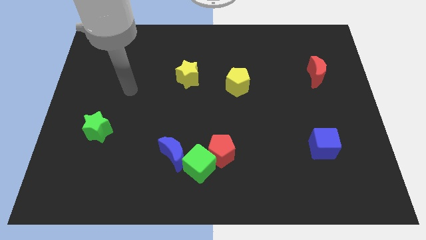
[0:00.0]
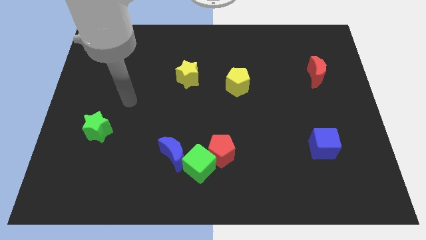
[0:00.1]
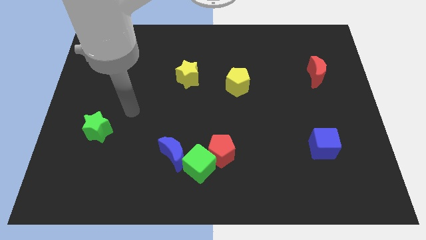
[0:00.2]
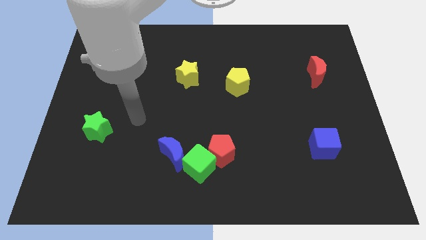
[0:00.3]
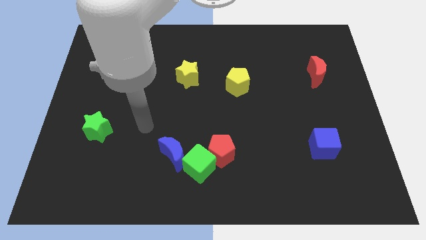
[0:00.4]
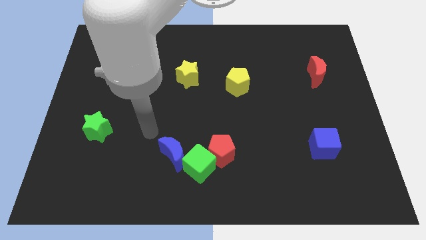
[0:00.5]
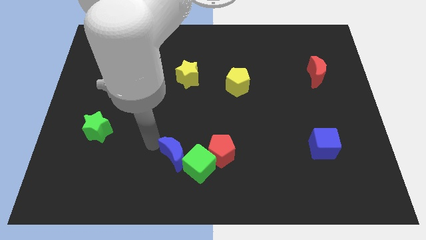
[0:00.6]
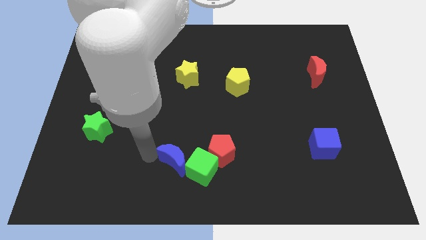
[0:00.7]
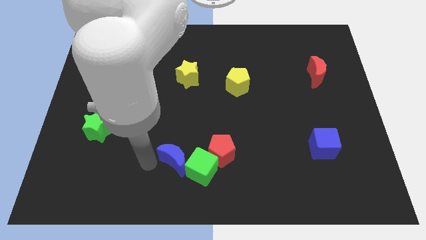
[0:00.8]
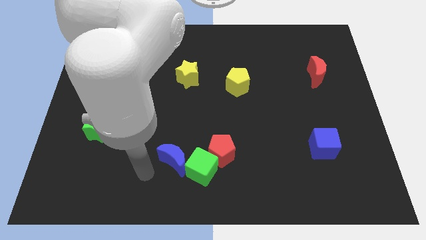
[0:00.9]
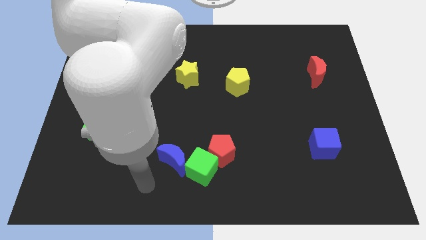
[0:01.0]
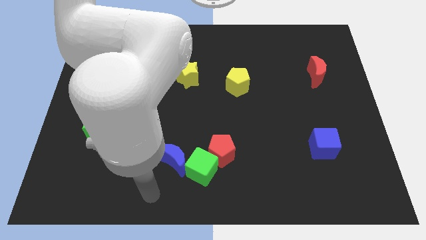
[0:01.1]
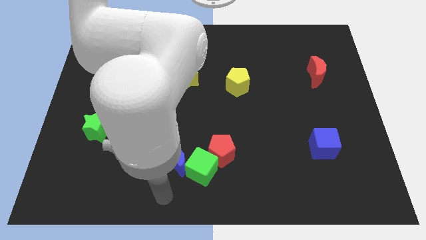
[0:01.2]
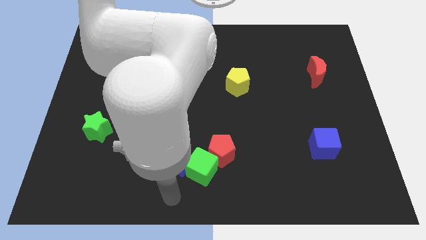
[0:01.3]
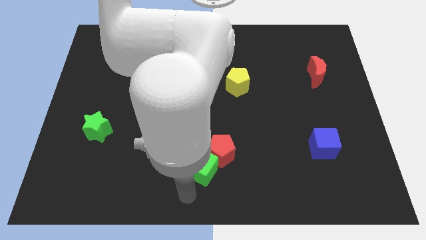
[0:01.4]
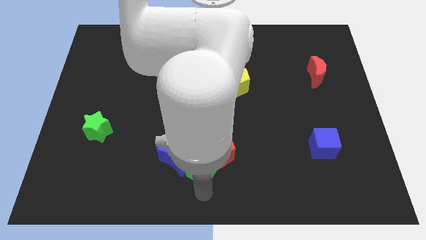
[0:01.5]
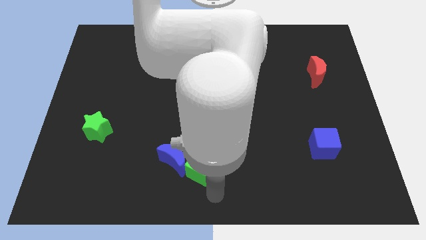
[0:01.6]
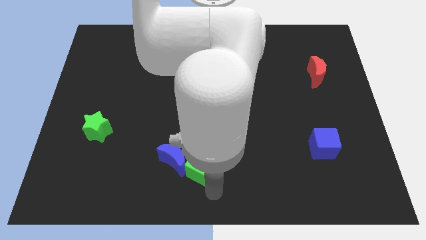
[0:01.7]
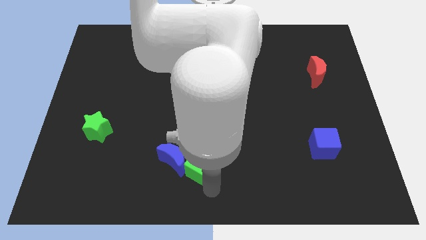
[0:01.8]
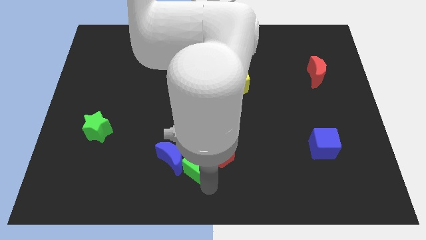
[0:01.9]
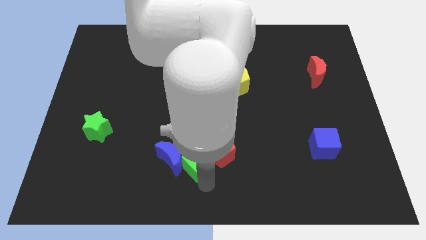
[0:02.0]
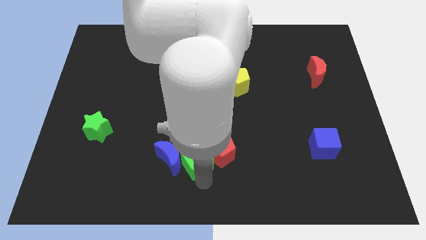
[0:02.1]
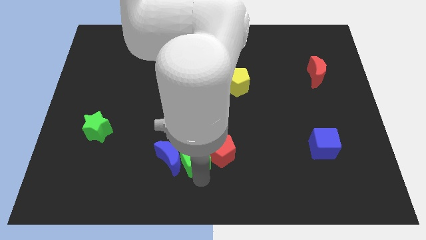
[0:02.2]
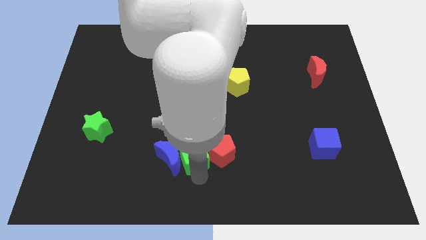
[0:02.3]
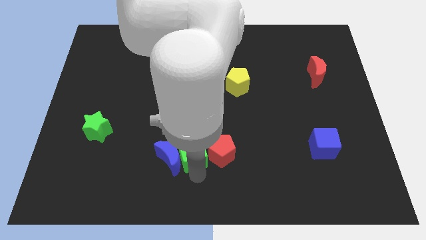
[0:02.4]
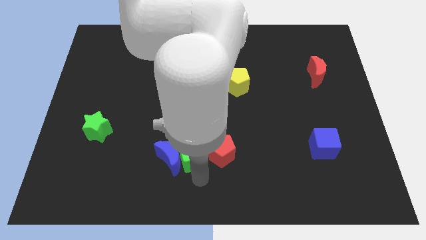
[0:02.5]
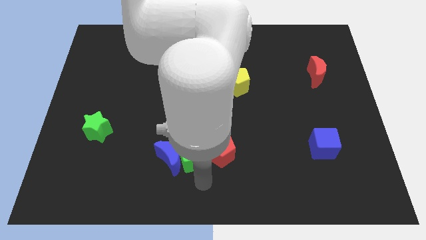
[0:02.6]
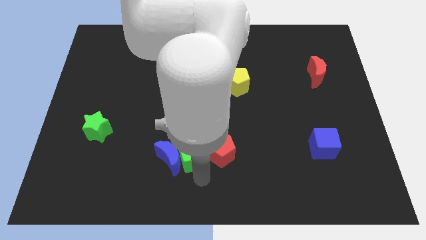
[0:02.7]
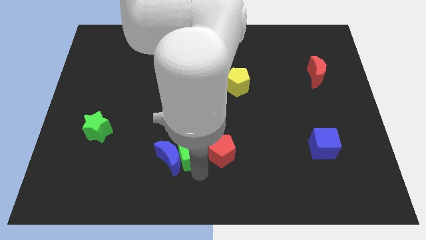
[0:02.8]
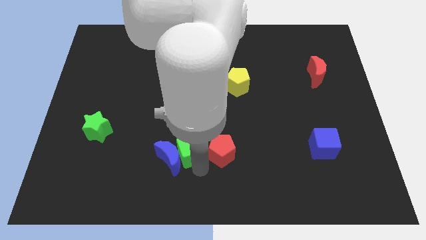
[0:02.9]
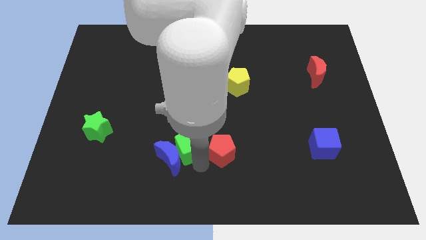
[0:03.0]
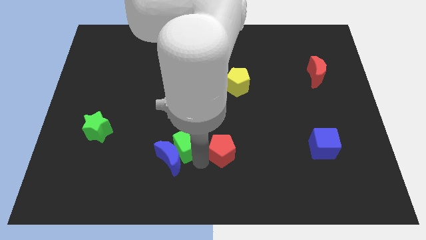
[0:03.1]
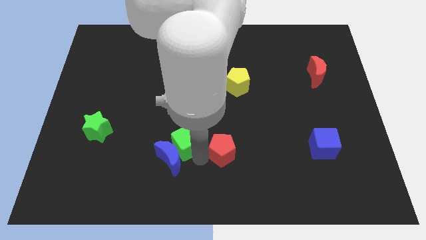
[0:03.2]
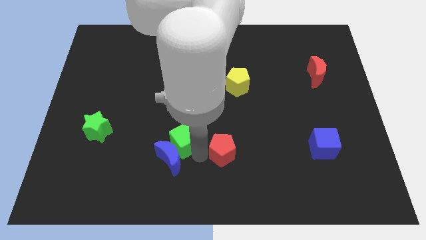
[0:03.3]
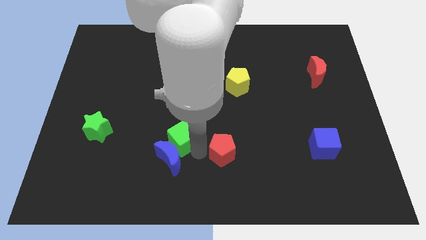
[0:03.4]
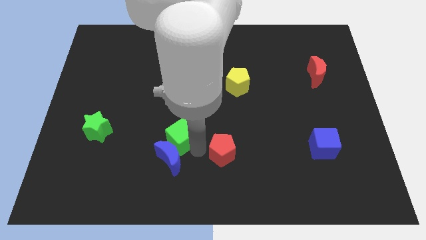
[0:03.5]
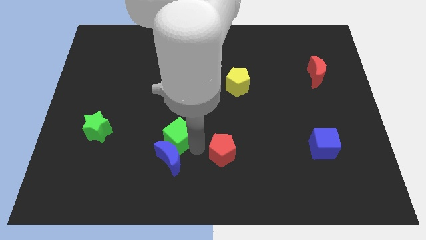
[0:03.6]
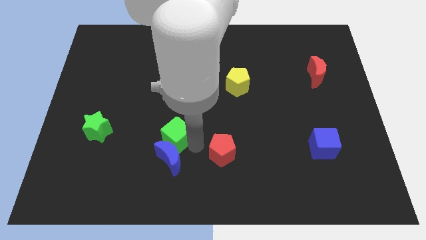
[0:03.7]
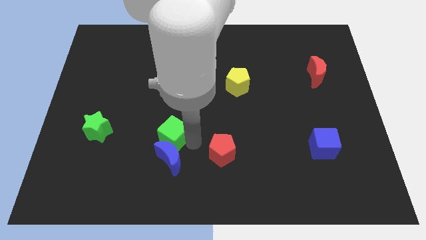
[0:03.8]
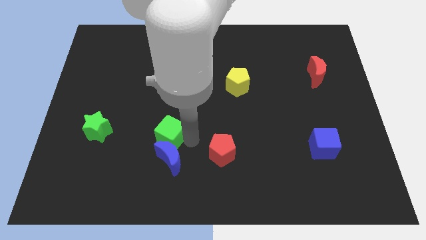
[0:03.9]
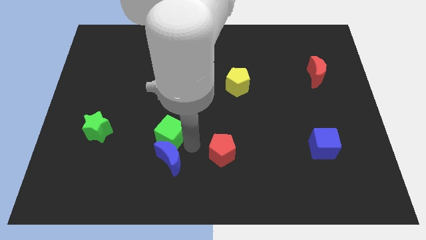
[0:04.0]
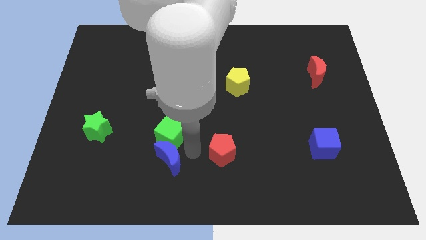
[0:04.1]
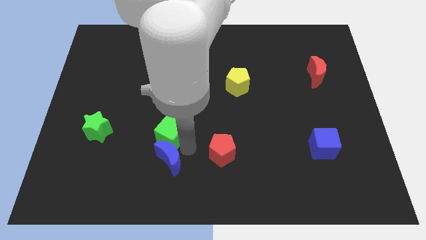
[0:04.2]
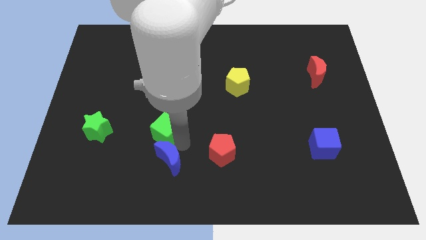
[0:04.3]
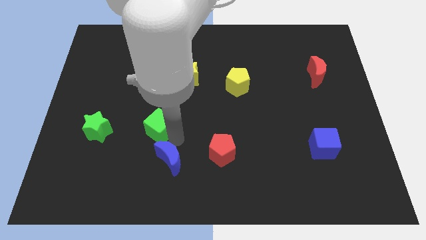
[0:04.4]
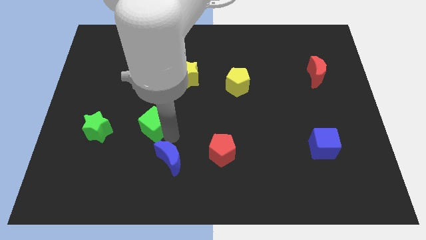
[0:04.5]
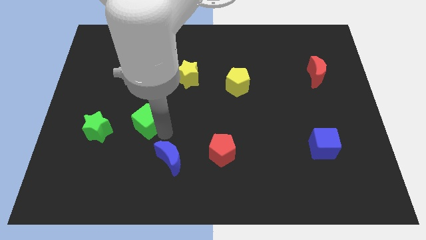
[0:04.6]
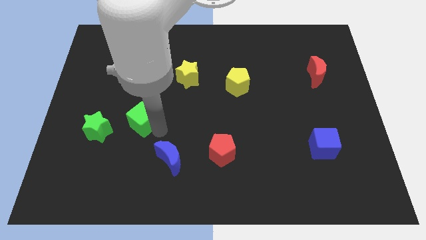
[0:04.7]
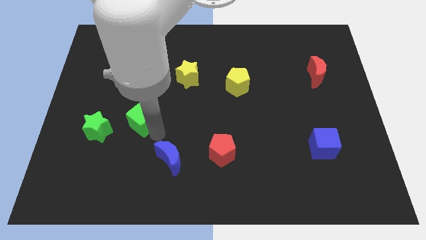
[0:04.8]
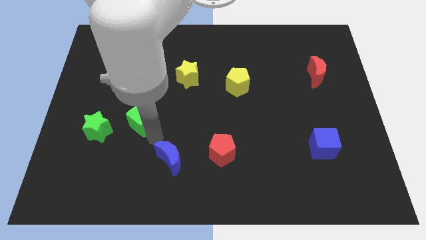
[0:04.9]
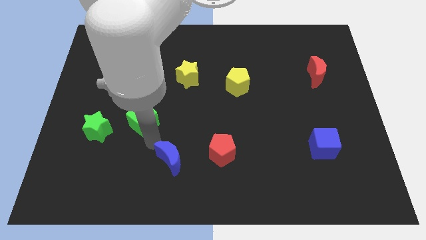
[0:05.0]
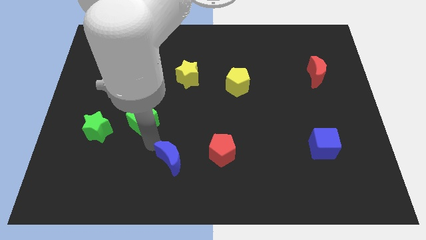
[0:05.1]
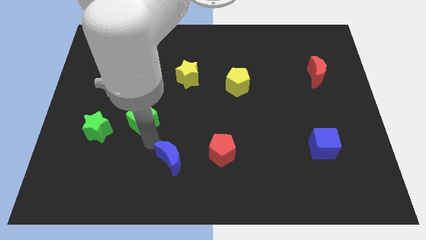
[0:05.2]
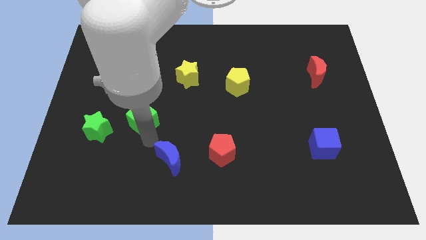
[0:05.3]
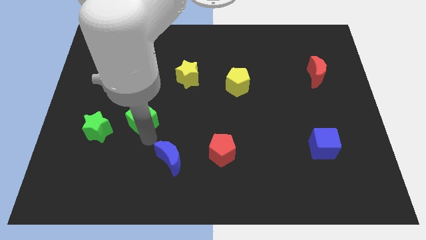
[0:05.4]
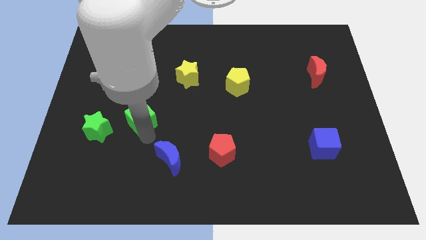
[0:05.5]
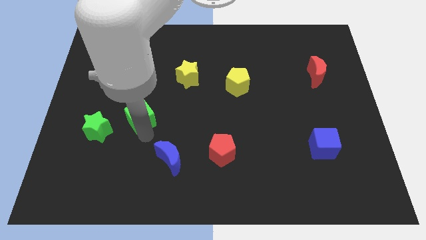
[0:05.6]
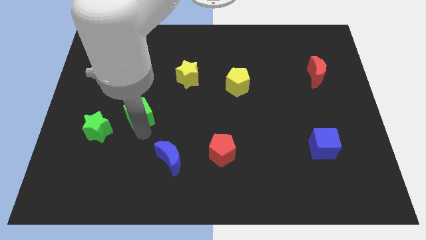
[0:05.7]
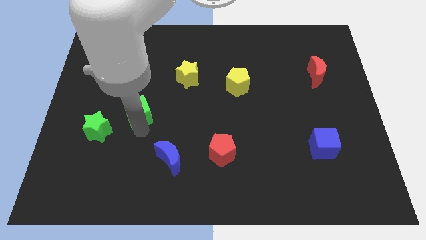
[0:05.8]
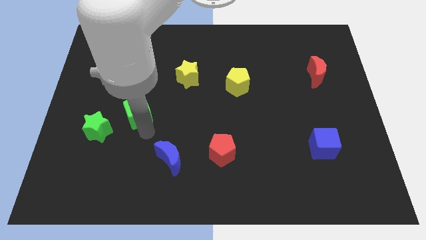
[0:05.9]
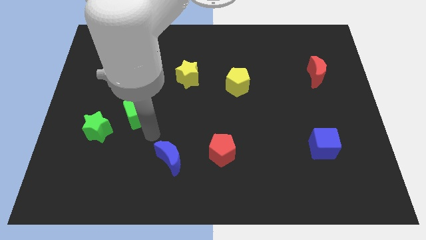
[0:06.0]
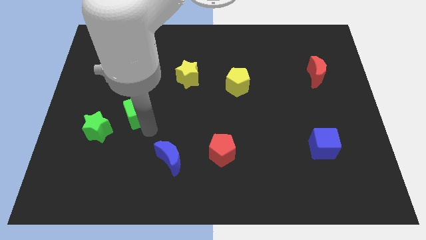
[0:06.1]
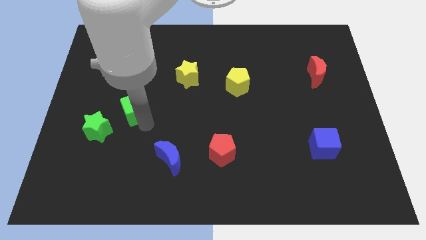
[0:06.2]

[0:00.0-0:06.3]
push the green cube up and to the left diagonally

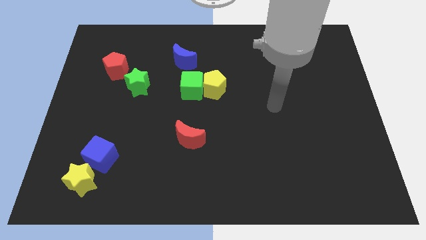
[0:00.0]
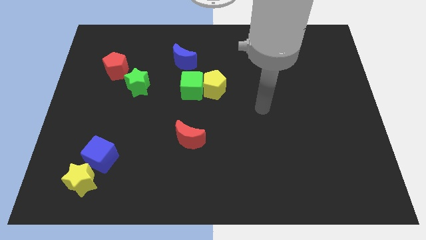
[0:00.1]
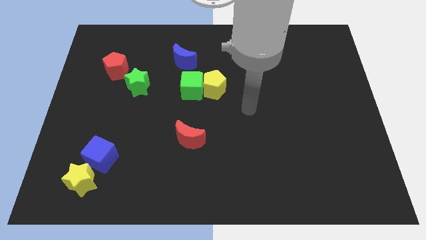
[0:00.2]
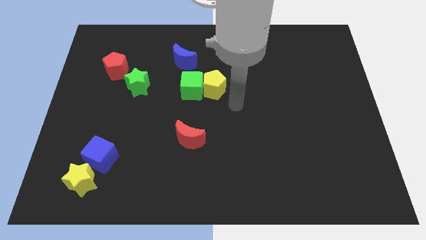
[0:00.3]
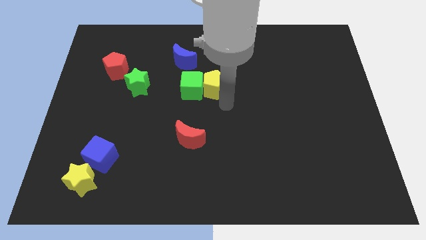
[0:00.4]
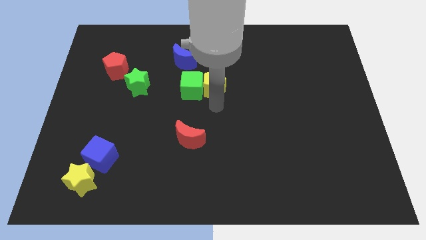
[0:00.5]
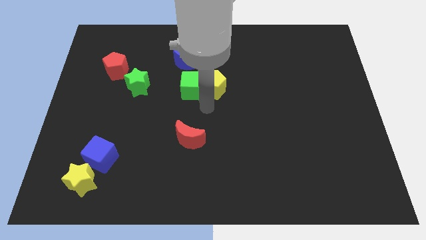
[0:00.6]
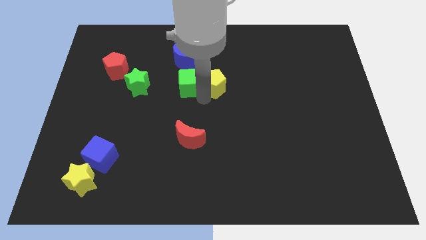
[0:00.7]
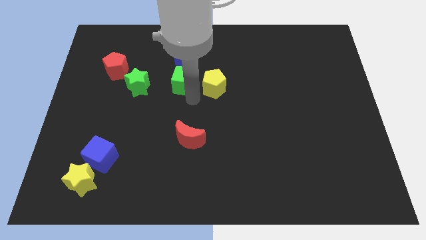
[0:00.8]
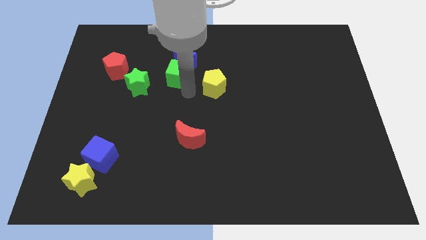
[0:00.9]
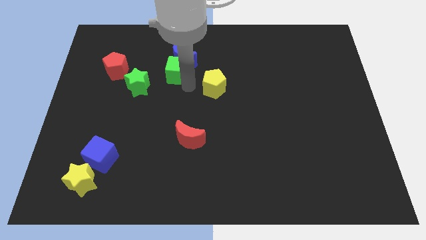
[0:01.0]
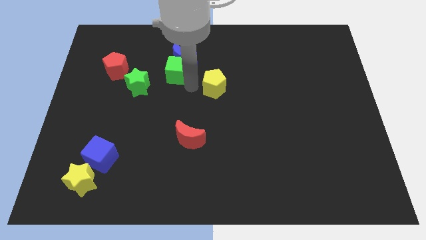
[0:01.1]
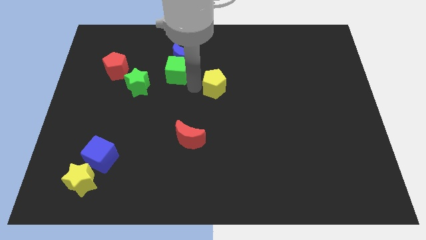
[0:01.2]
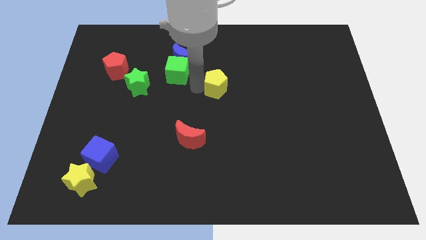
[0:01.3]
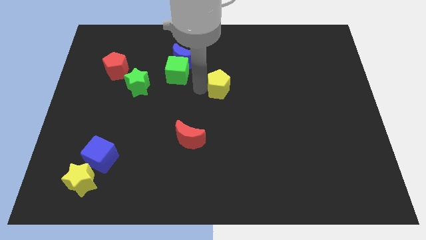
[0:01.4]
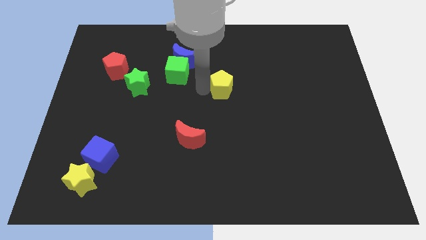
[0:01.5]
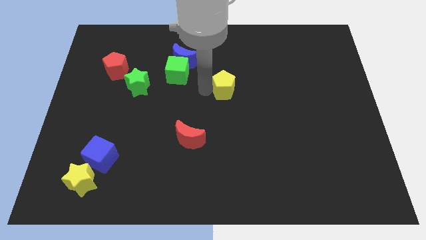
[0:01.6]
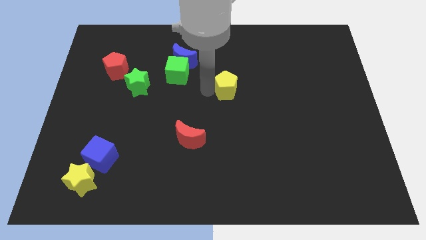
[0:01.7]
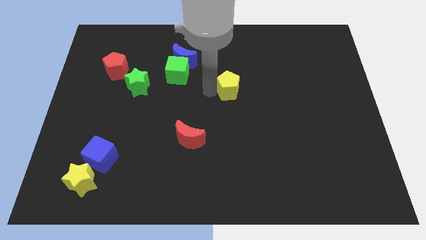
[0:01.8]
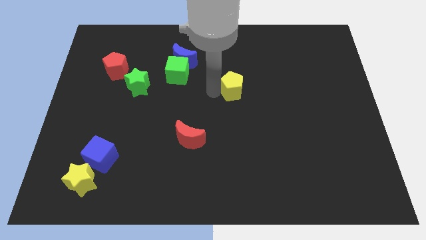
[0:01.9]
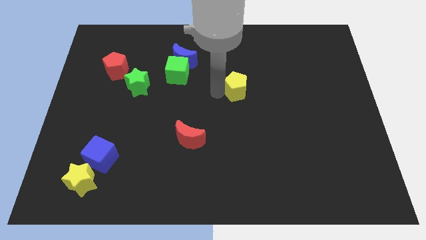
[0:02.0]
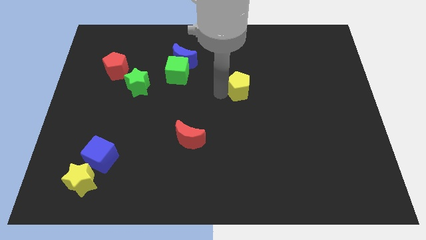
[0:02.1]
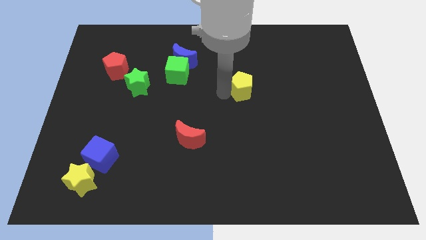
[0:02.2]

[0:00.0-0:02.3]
push the yellow pentagon to the right slightly
